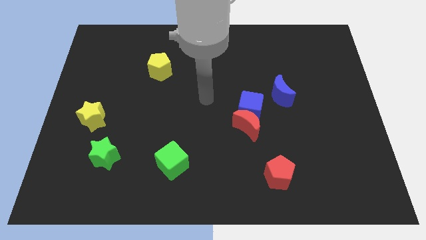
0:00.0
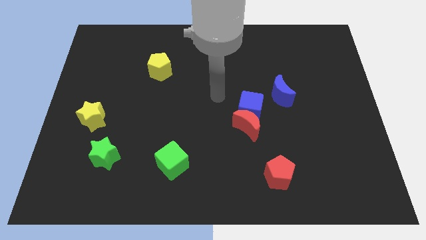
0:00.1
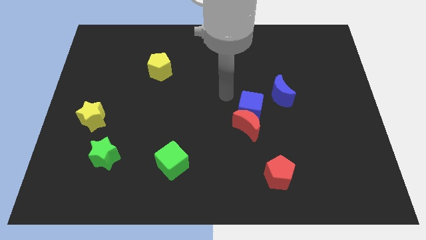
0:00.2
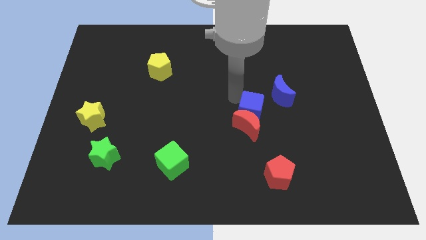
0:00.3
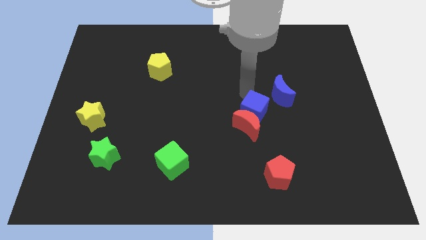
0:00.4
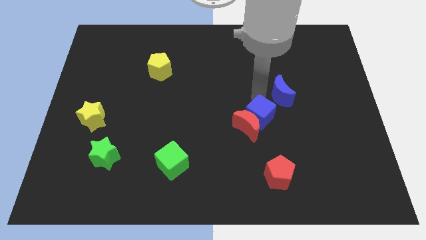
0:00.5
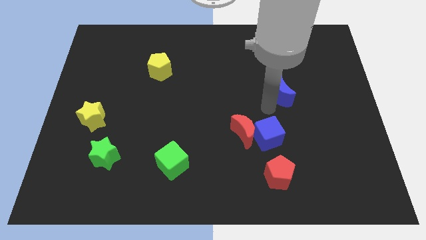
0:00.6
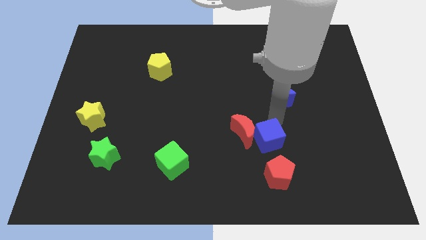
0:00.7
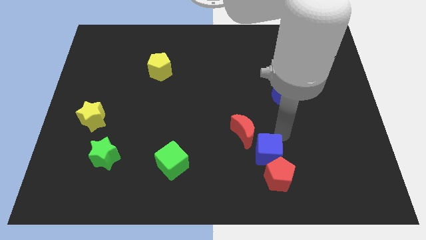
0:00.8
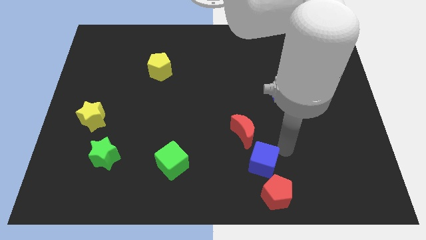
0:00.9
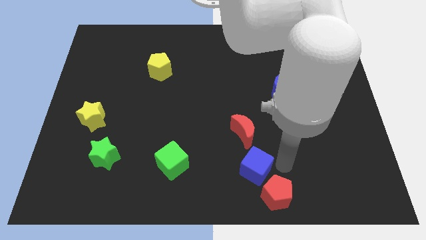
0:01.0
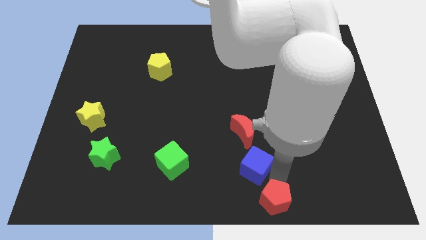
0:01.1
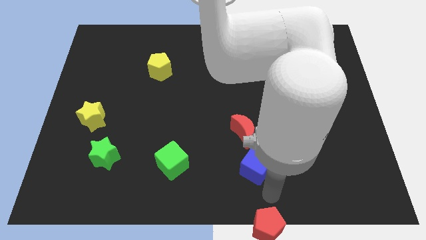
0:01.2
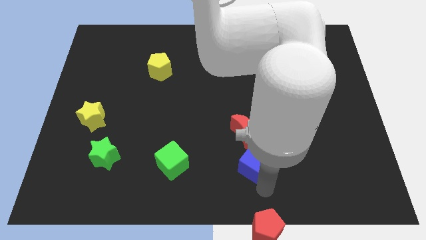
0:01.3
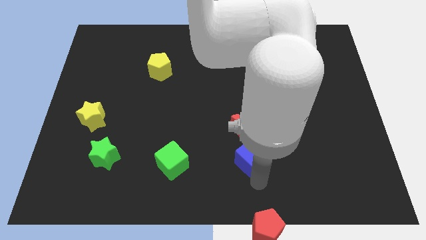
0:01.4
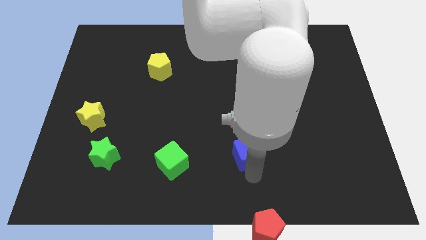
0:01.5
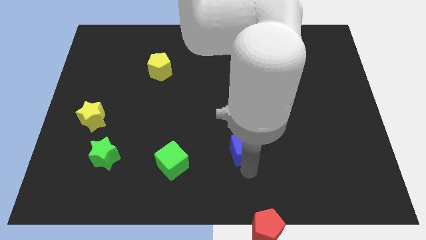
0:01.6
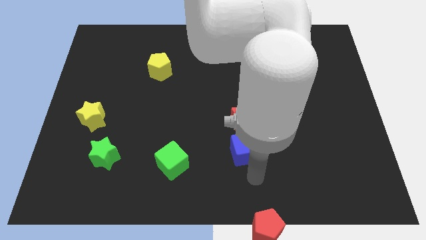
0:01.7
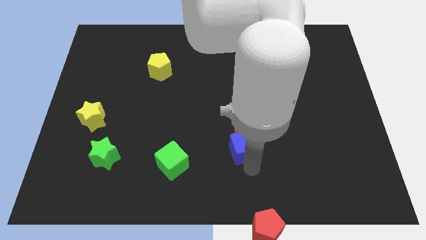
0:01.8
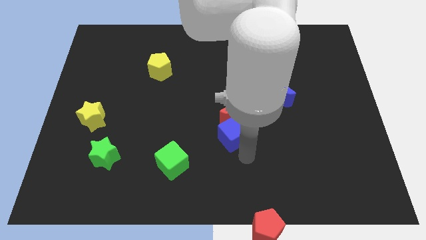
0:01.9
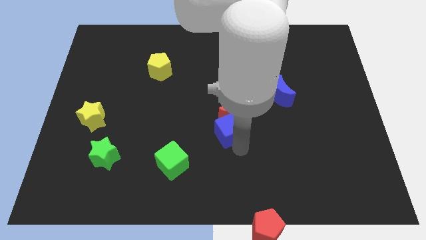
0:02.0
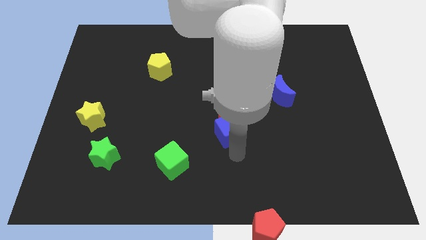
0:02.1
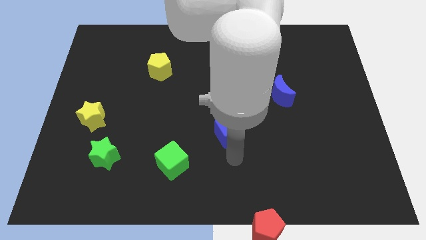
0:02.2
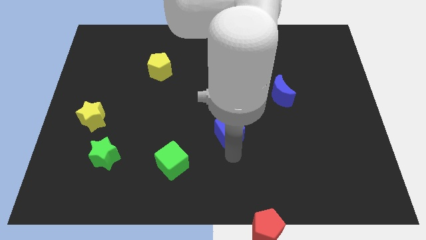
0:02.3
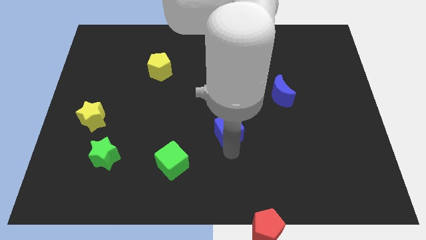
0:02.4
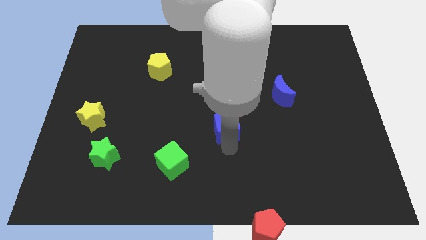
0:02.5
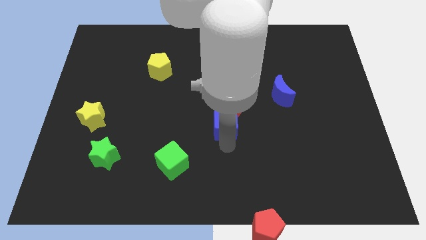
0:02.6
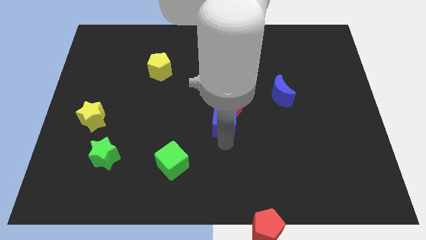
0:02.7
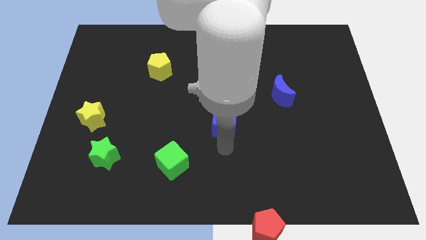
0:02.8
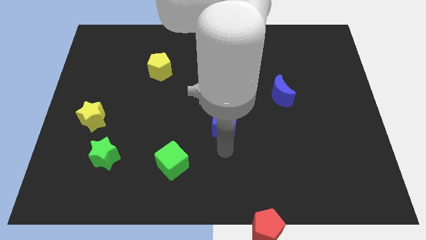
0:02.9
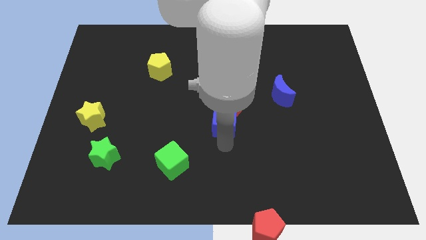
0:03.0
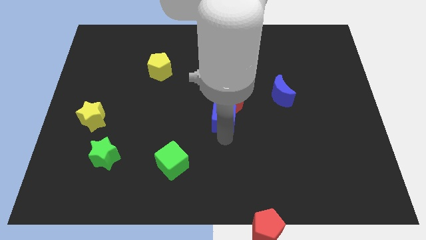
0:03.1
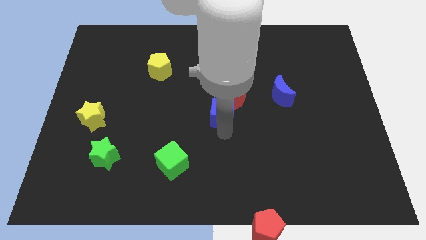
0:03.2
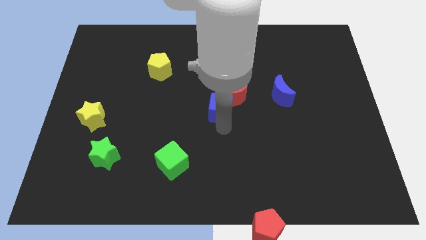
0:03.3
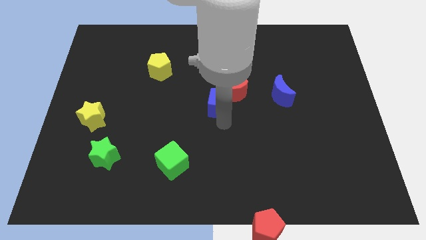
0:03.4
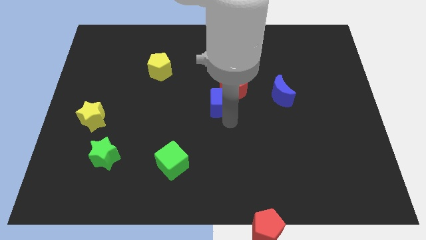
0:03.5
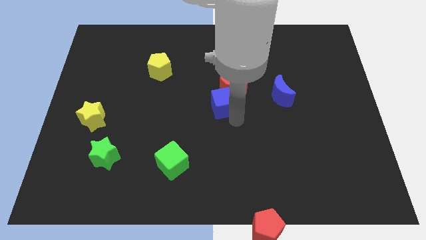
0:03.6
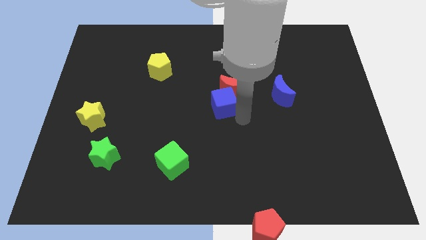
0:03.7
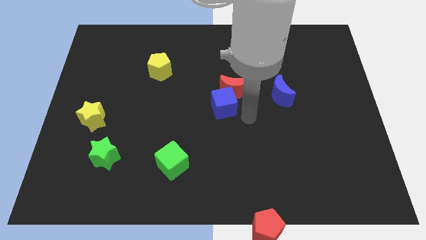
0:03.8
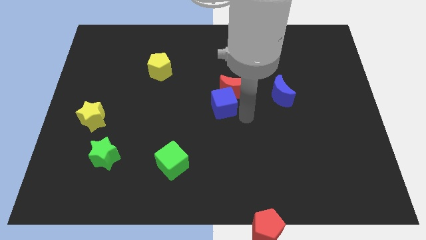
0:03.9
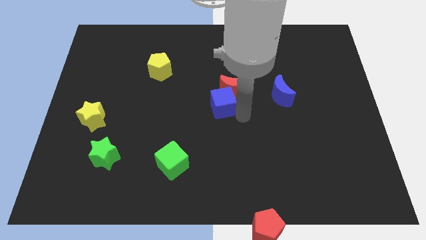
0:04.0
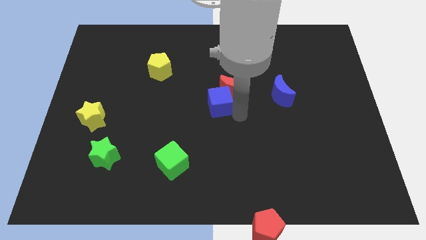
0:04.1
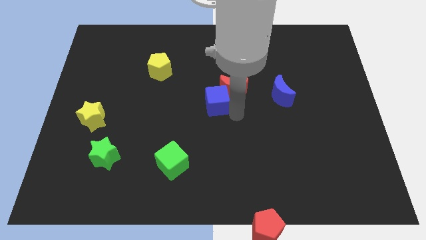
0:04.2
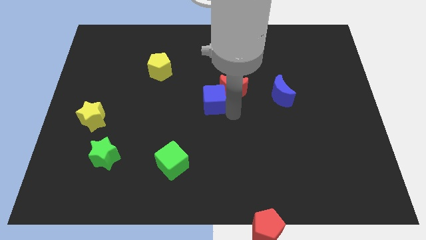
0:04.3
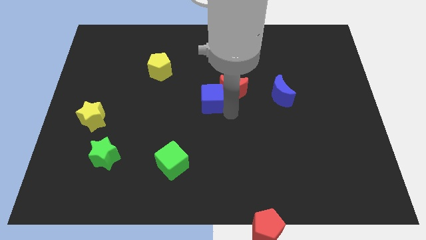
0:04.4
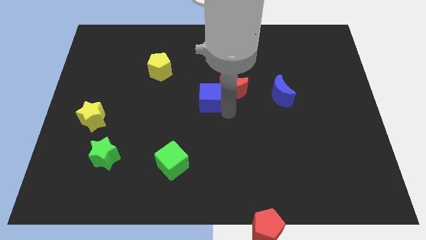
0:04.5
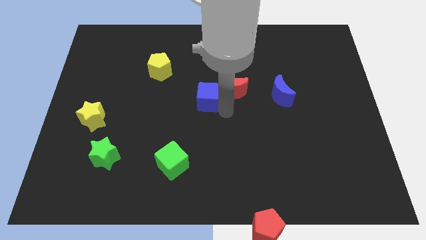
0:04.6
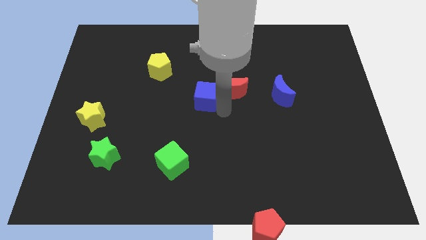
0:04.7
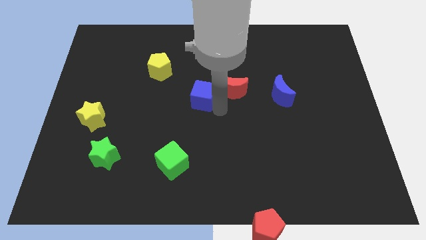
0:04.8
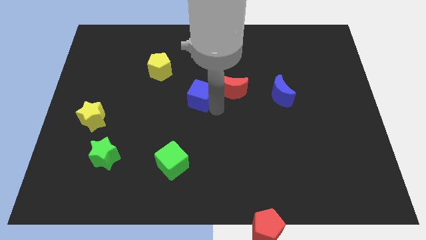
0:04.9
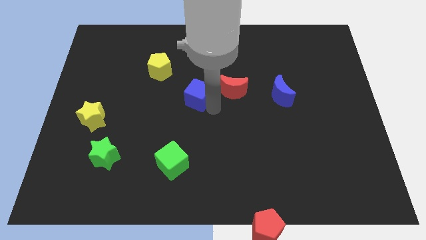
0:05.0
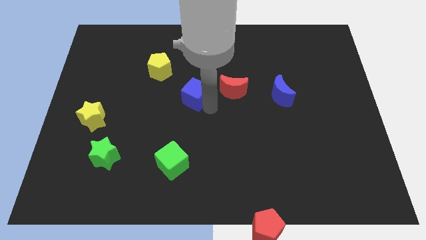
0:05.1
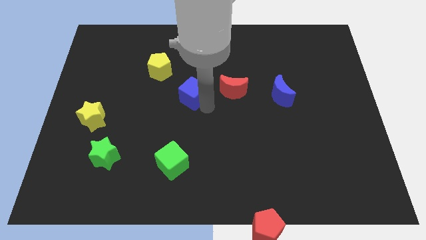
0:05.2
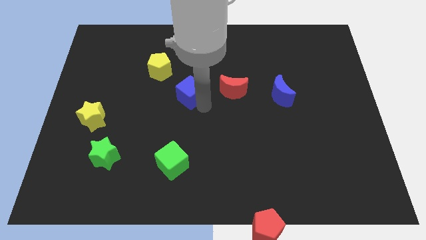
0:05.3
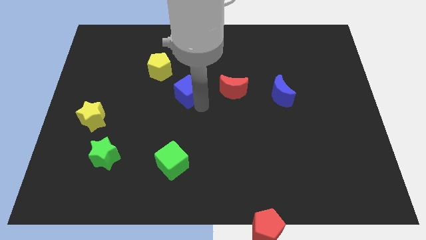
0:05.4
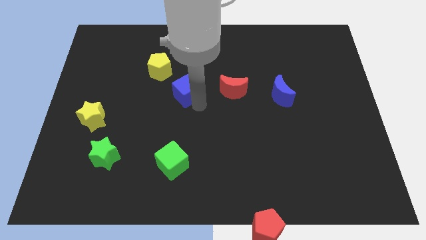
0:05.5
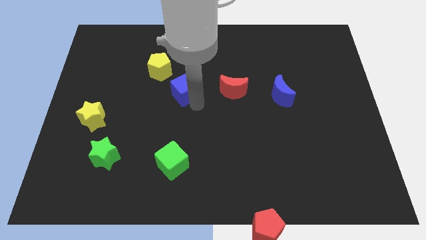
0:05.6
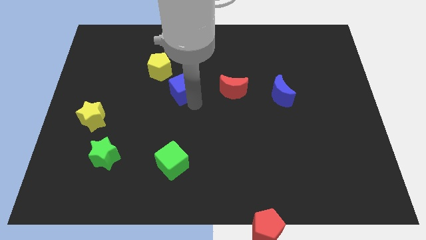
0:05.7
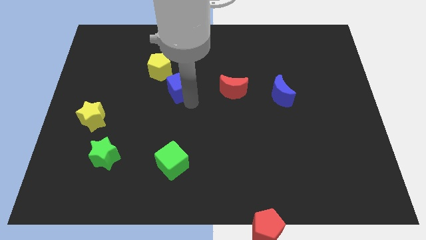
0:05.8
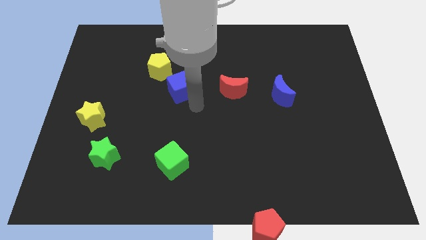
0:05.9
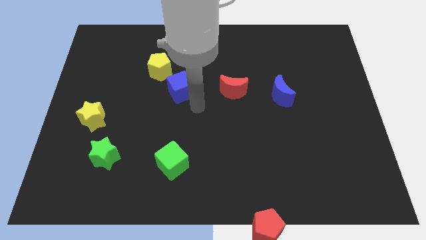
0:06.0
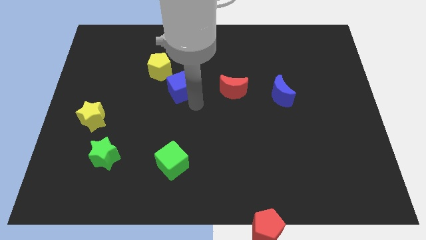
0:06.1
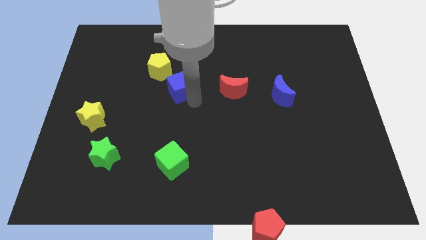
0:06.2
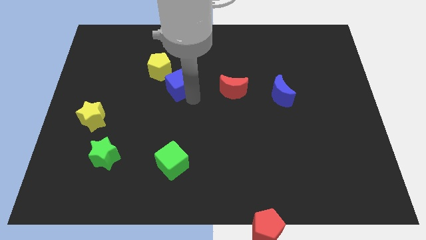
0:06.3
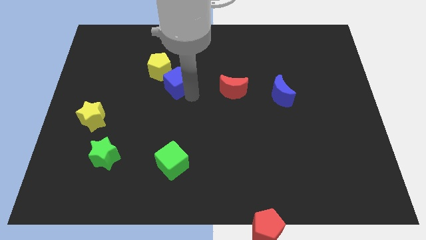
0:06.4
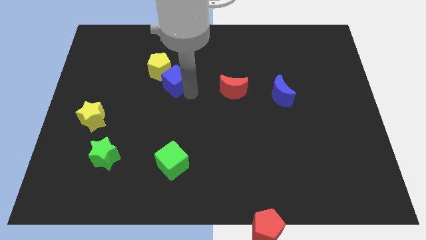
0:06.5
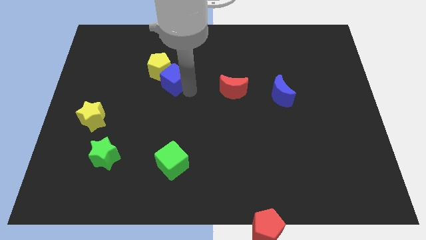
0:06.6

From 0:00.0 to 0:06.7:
push the blue cube next to the yellow pentagon

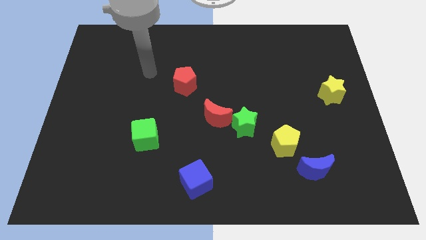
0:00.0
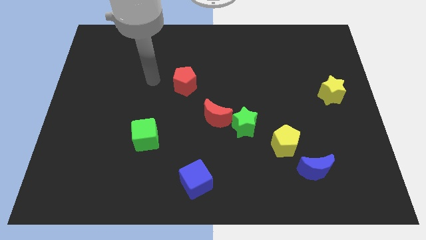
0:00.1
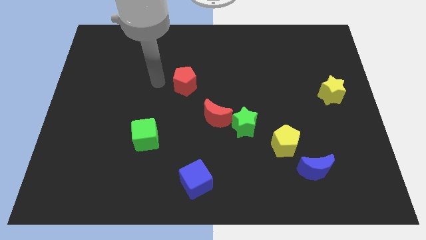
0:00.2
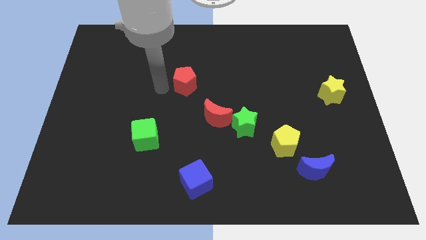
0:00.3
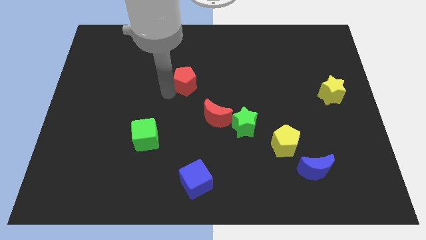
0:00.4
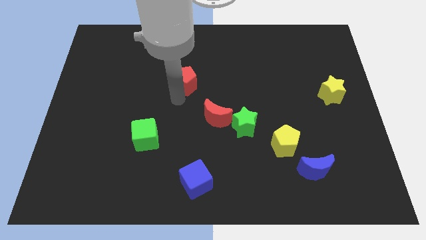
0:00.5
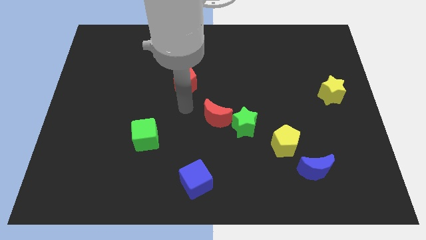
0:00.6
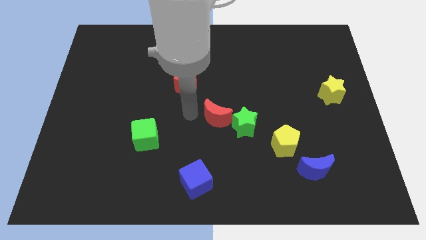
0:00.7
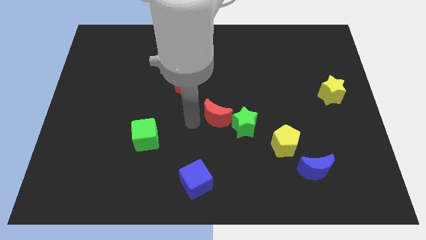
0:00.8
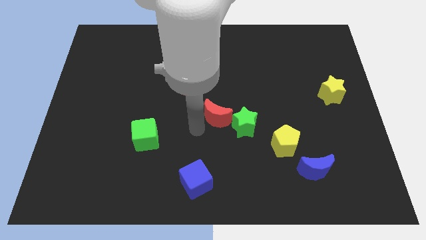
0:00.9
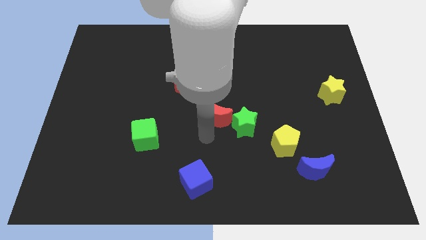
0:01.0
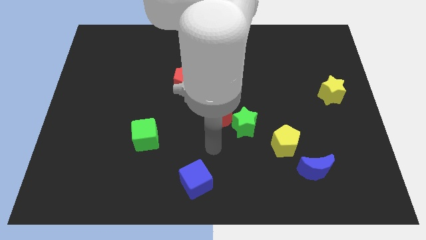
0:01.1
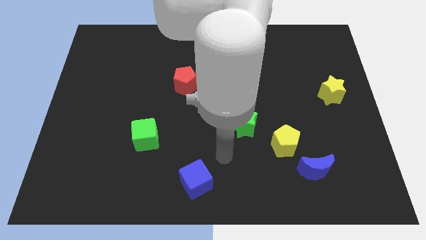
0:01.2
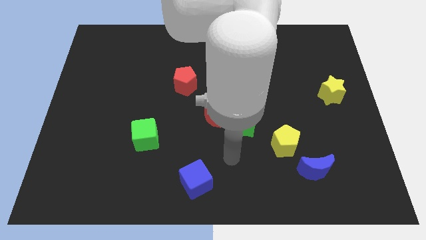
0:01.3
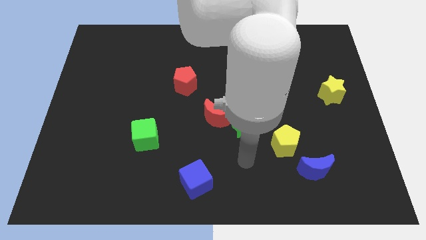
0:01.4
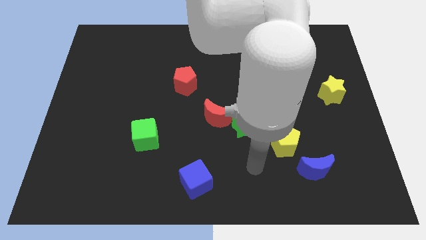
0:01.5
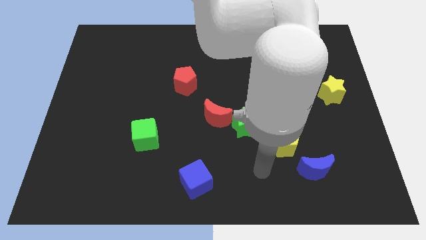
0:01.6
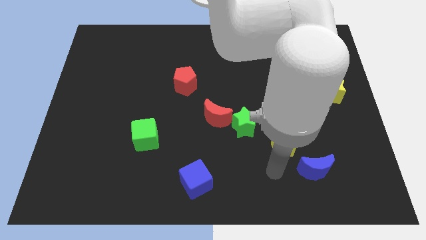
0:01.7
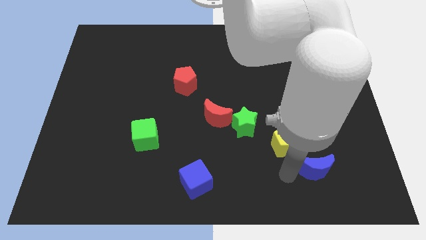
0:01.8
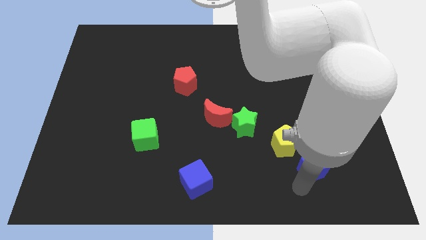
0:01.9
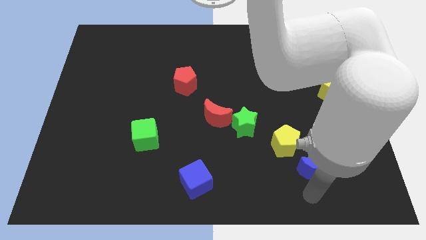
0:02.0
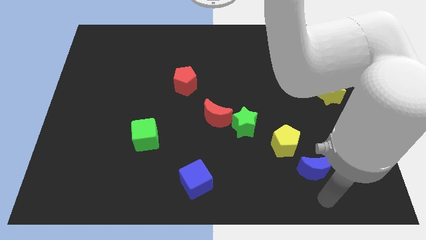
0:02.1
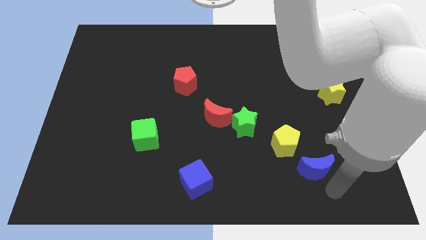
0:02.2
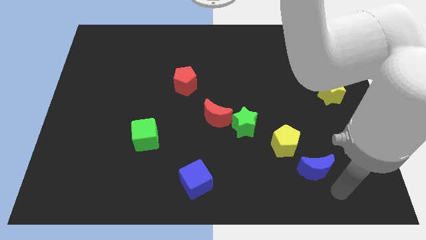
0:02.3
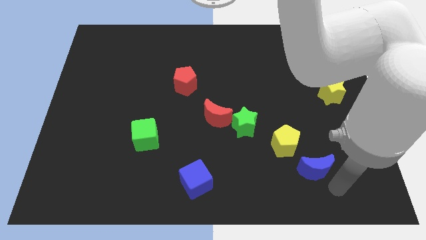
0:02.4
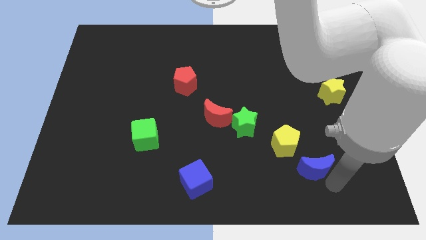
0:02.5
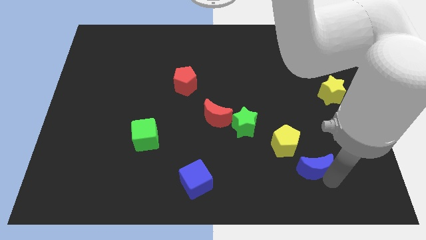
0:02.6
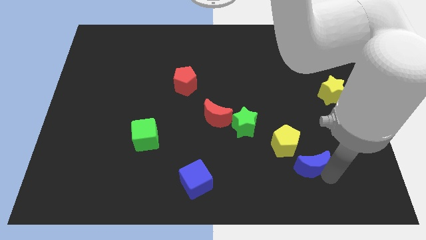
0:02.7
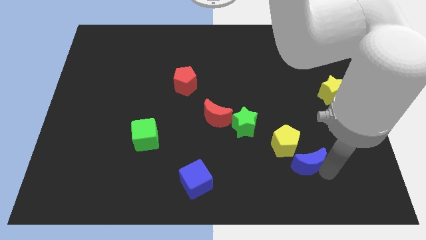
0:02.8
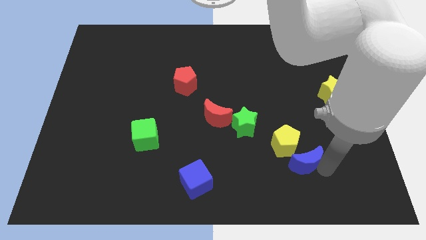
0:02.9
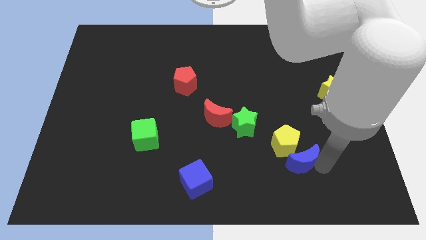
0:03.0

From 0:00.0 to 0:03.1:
put the blue moon towards the yellow pentagon
